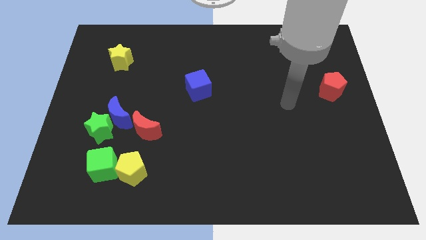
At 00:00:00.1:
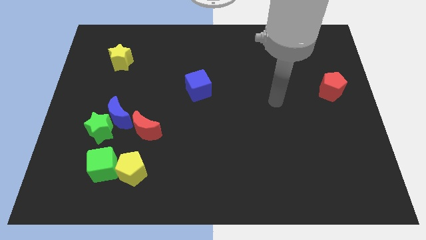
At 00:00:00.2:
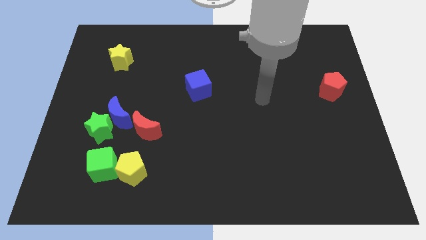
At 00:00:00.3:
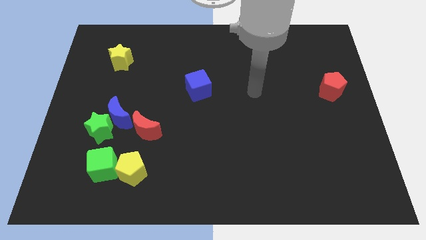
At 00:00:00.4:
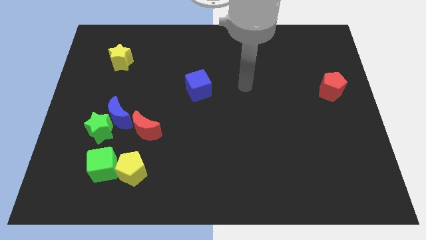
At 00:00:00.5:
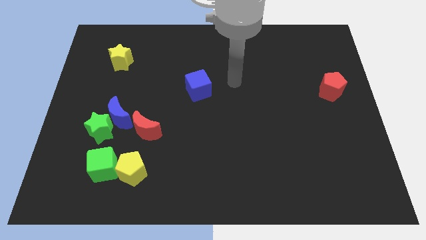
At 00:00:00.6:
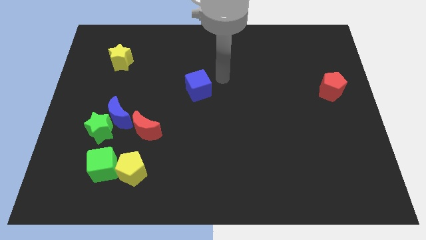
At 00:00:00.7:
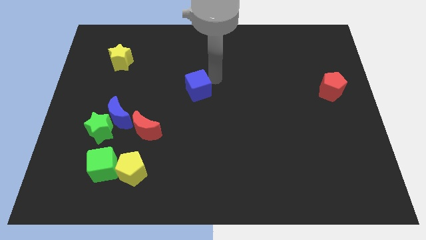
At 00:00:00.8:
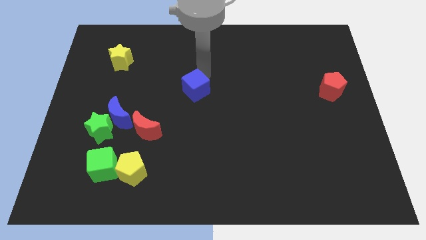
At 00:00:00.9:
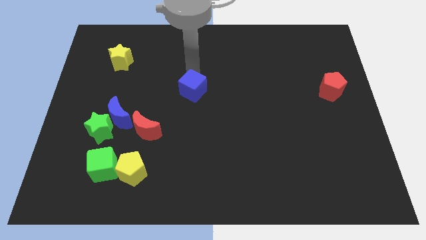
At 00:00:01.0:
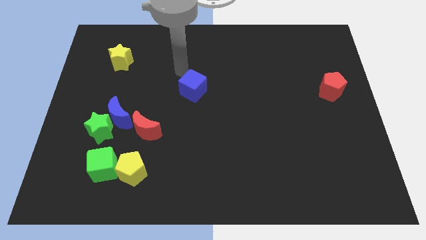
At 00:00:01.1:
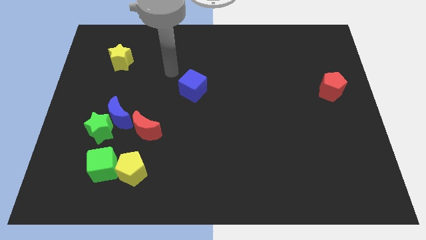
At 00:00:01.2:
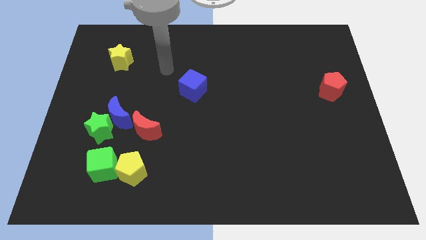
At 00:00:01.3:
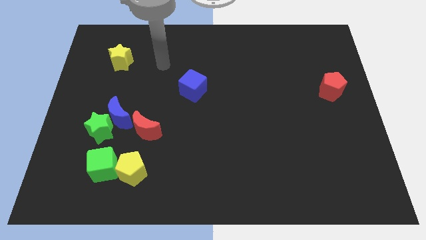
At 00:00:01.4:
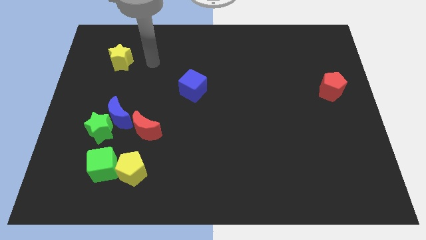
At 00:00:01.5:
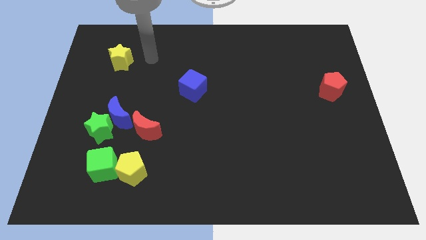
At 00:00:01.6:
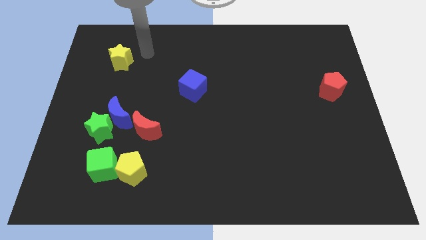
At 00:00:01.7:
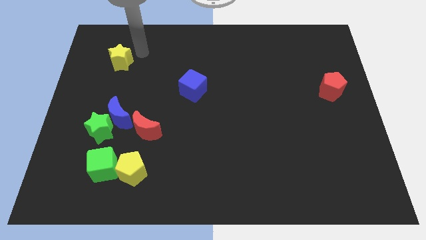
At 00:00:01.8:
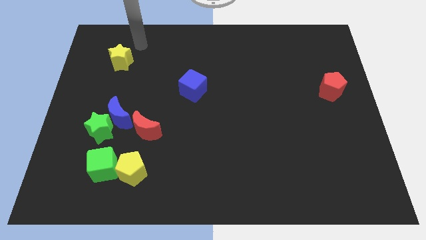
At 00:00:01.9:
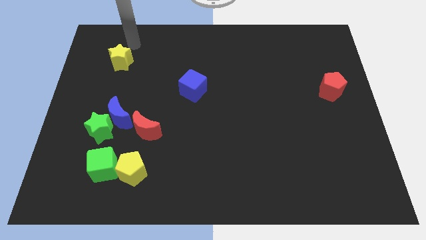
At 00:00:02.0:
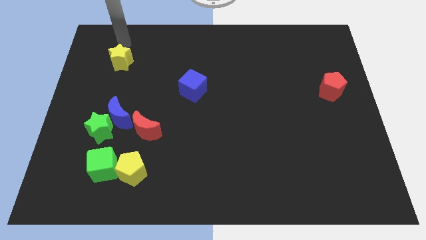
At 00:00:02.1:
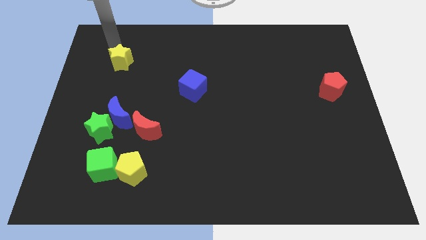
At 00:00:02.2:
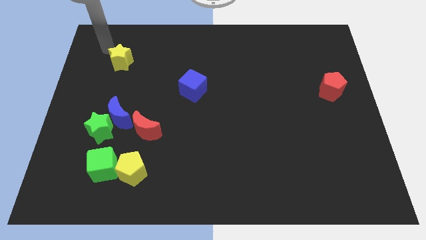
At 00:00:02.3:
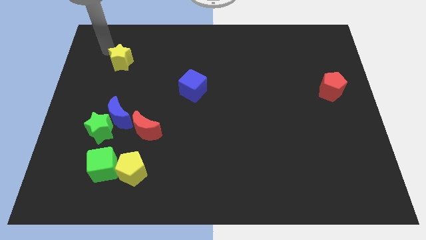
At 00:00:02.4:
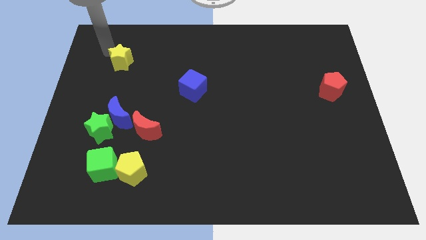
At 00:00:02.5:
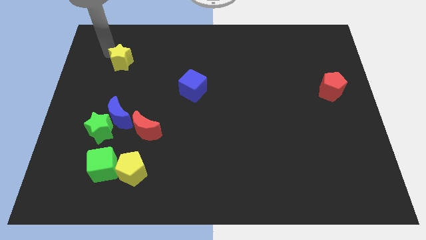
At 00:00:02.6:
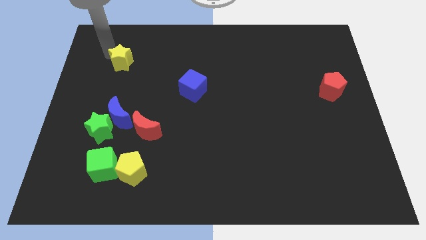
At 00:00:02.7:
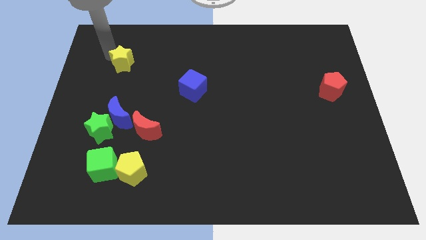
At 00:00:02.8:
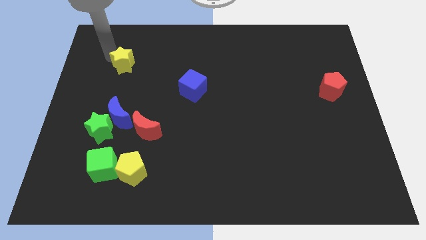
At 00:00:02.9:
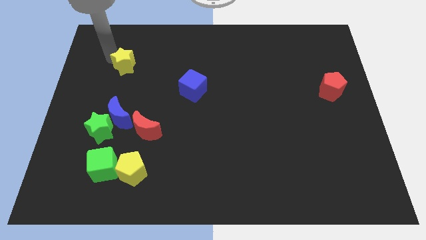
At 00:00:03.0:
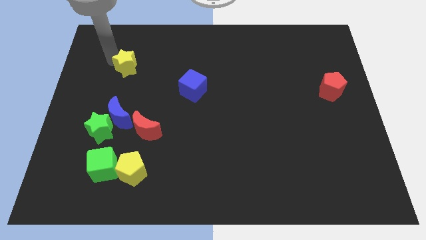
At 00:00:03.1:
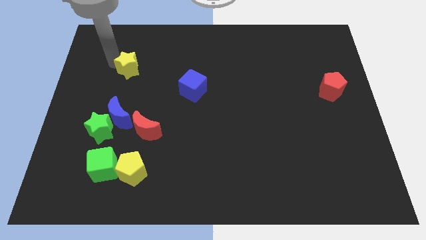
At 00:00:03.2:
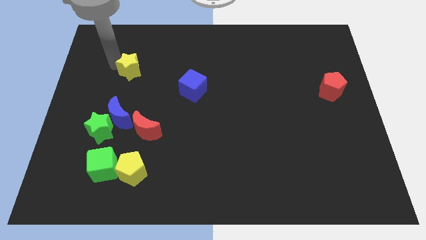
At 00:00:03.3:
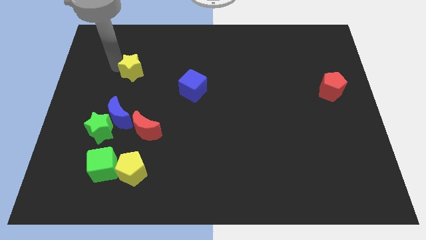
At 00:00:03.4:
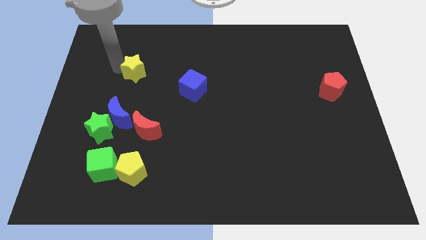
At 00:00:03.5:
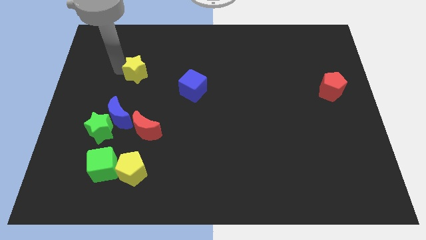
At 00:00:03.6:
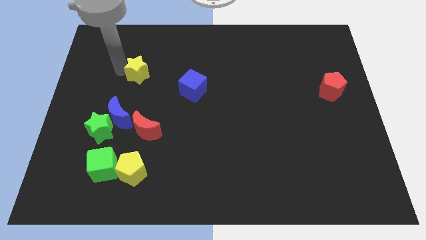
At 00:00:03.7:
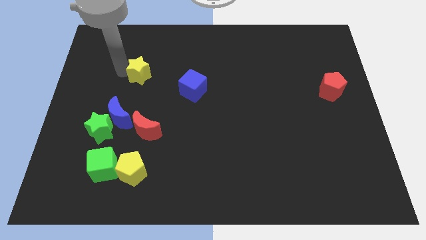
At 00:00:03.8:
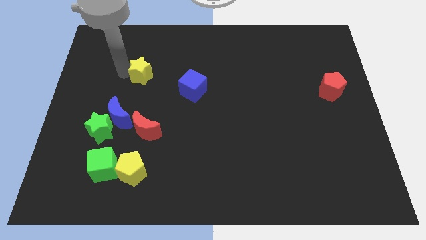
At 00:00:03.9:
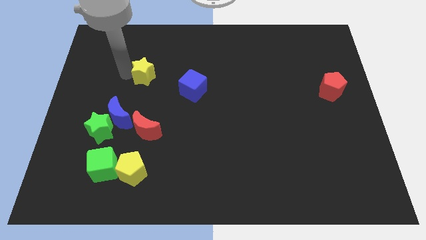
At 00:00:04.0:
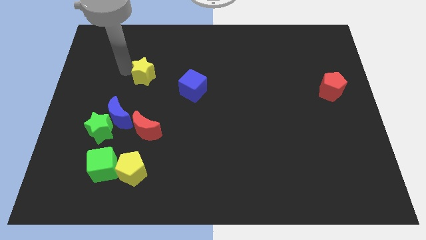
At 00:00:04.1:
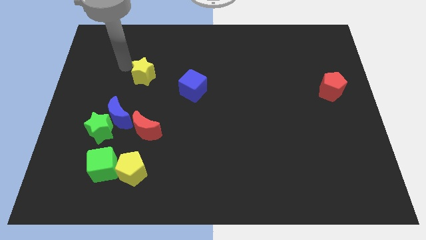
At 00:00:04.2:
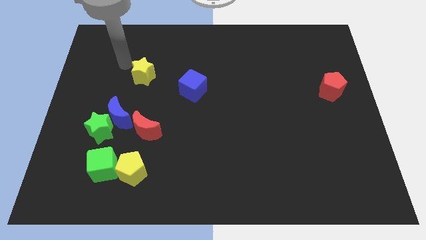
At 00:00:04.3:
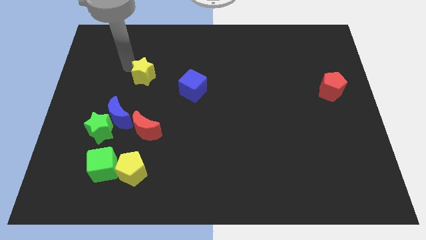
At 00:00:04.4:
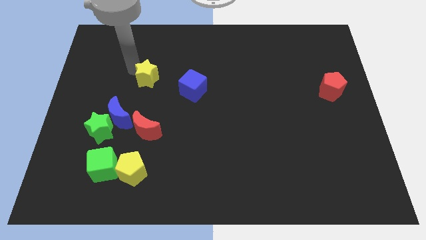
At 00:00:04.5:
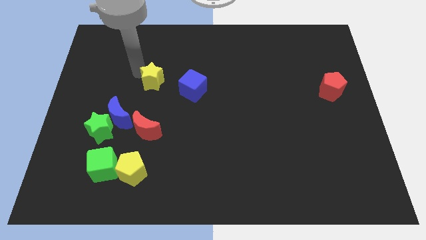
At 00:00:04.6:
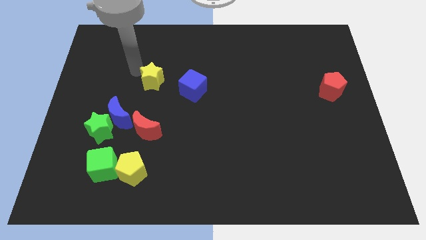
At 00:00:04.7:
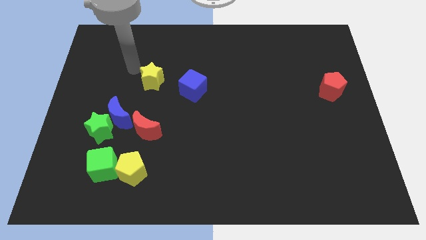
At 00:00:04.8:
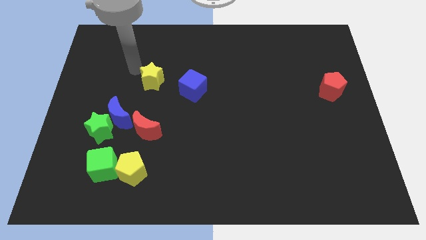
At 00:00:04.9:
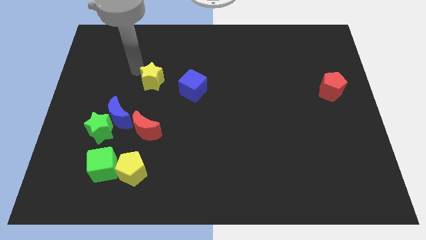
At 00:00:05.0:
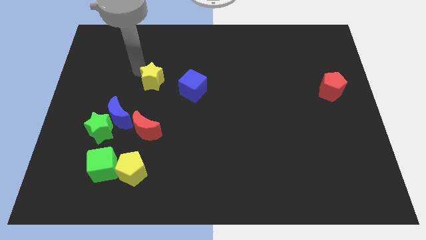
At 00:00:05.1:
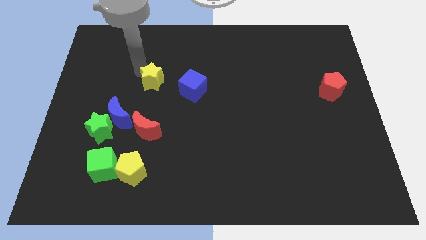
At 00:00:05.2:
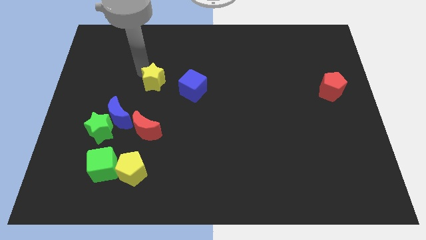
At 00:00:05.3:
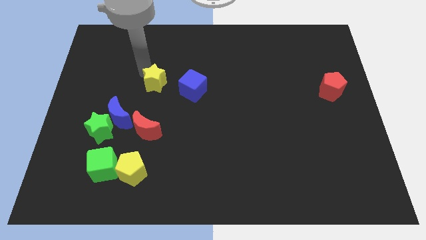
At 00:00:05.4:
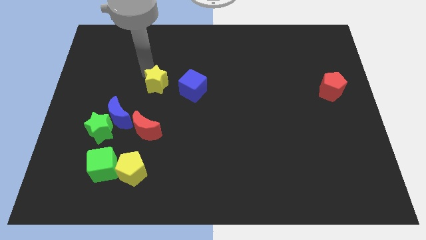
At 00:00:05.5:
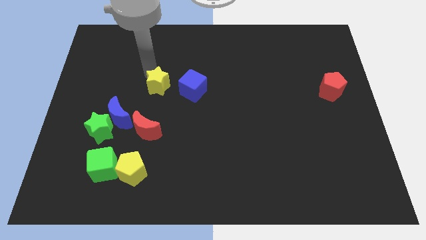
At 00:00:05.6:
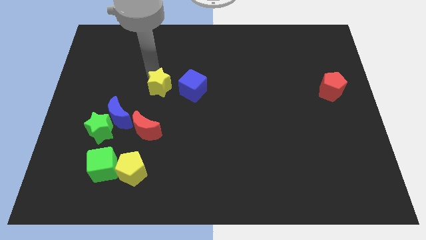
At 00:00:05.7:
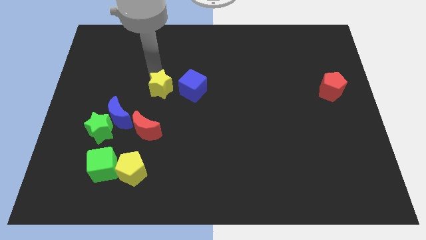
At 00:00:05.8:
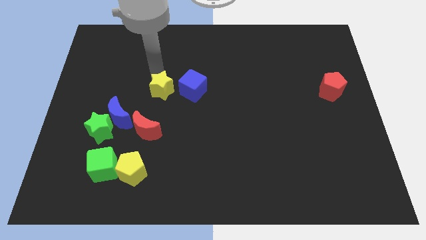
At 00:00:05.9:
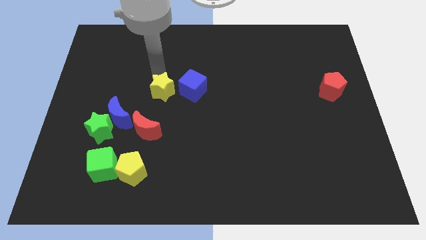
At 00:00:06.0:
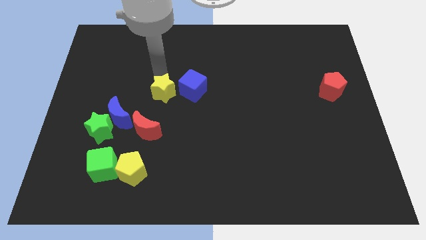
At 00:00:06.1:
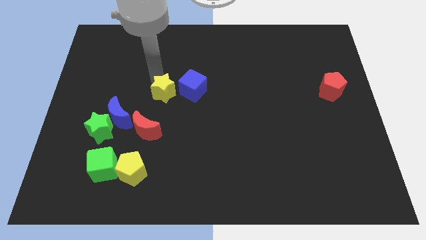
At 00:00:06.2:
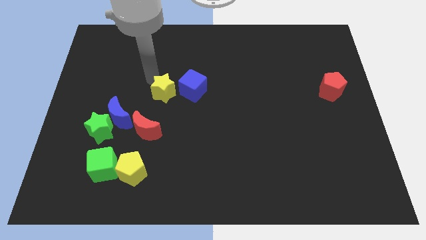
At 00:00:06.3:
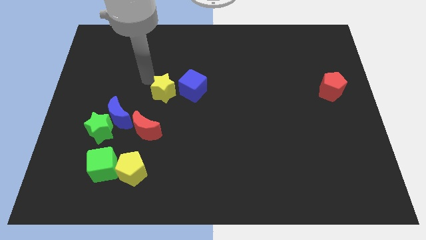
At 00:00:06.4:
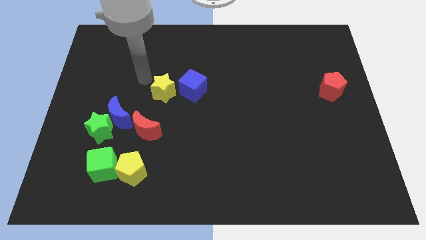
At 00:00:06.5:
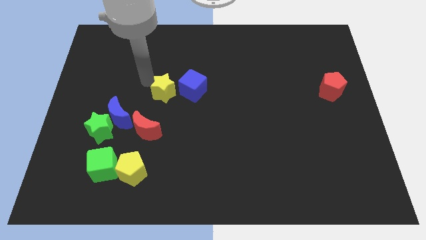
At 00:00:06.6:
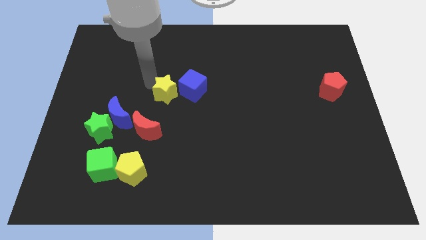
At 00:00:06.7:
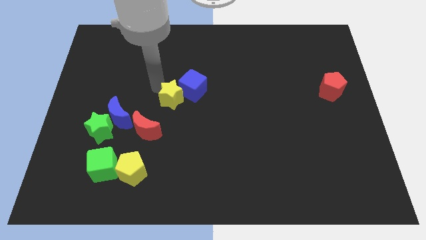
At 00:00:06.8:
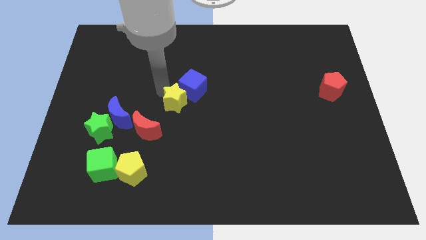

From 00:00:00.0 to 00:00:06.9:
move the yellow star diagonally down and right

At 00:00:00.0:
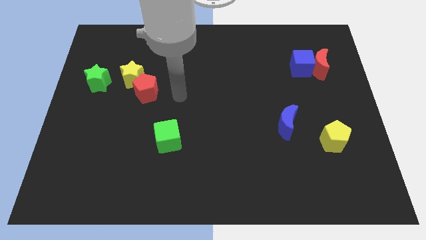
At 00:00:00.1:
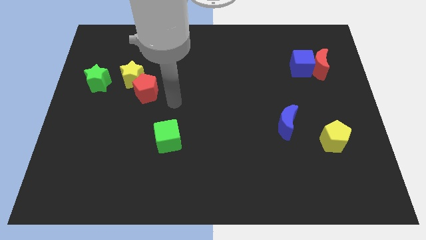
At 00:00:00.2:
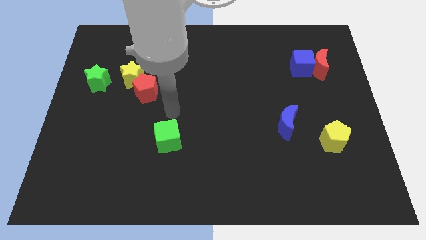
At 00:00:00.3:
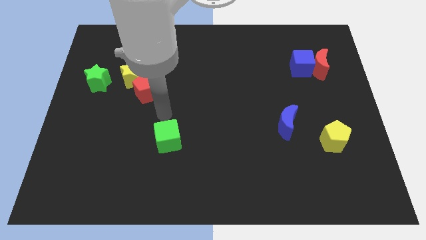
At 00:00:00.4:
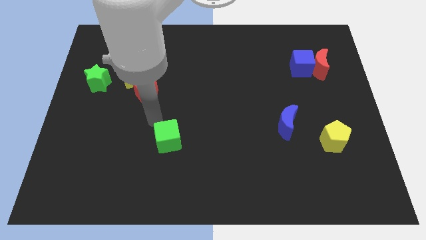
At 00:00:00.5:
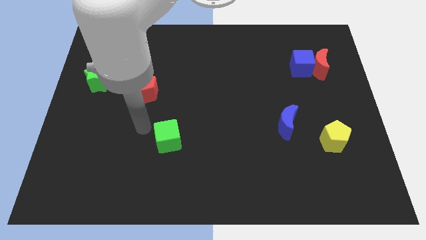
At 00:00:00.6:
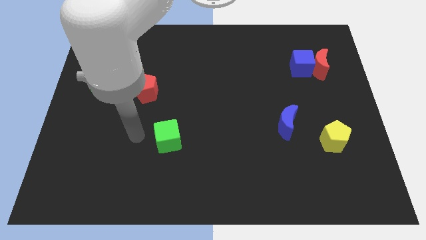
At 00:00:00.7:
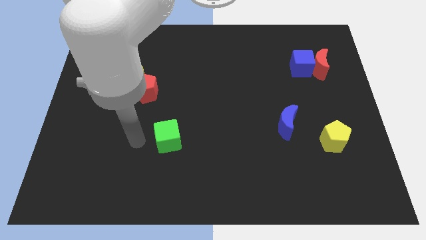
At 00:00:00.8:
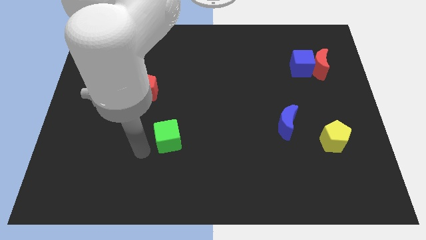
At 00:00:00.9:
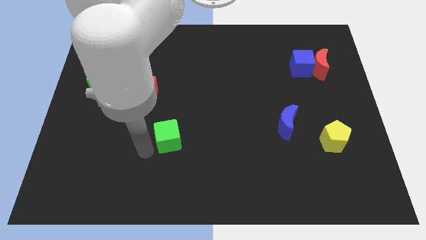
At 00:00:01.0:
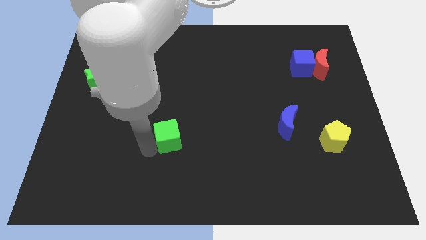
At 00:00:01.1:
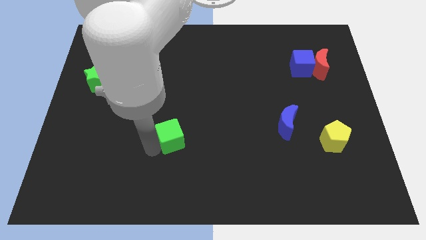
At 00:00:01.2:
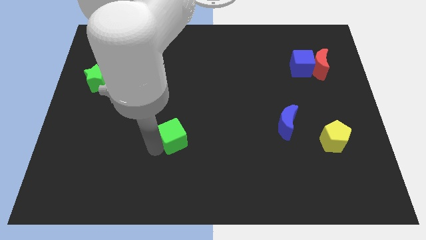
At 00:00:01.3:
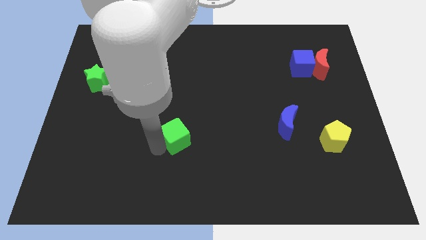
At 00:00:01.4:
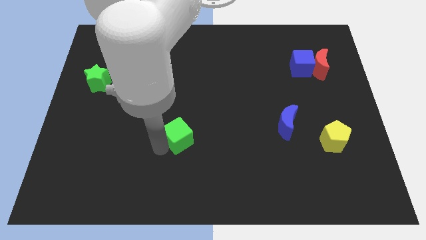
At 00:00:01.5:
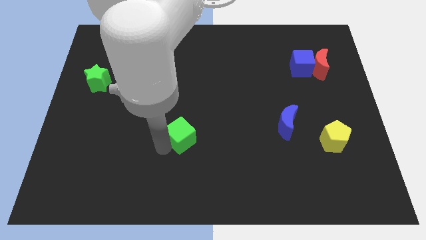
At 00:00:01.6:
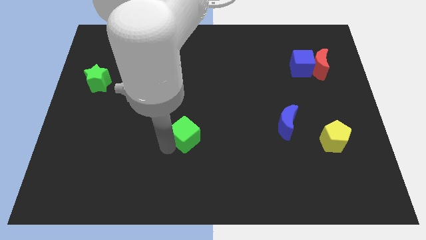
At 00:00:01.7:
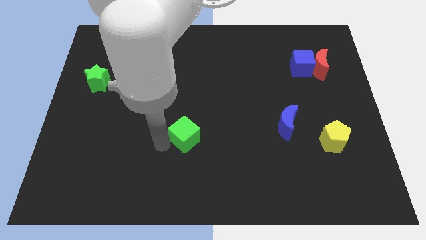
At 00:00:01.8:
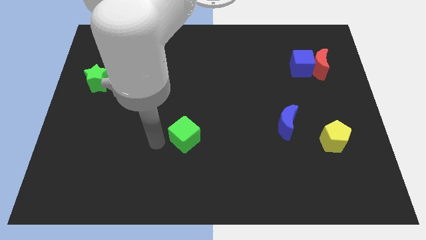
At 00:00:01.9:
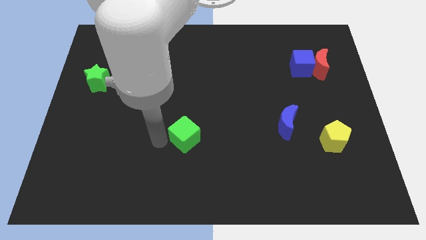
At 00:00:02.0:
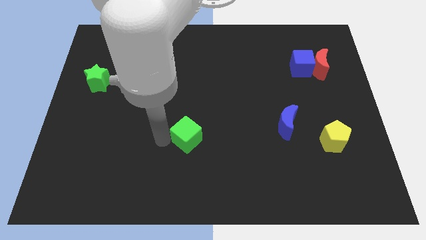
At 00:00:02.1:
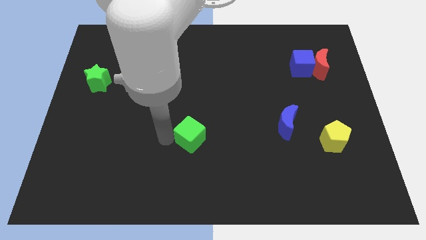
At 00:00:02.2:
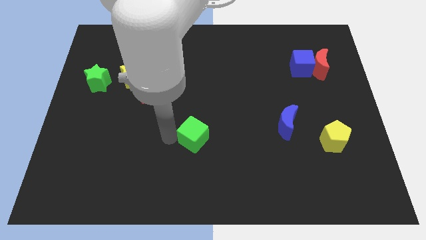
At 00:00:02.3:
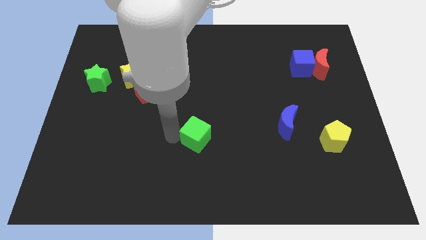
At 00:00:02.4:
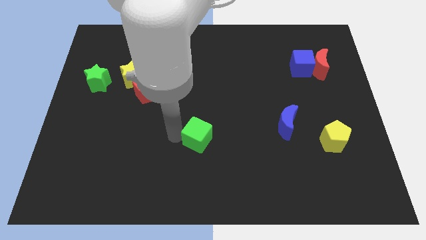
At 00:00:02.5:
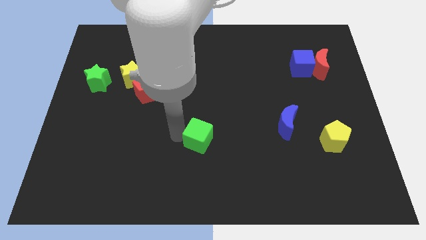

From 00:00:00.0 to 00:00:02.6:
slightly push the green cube right
